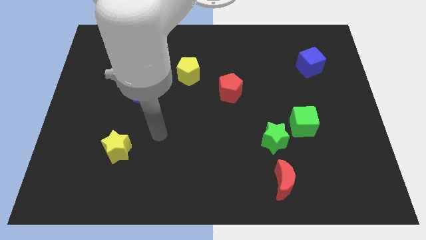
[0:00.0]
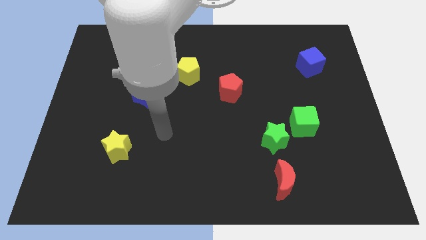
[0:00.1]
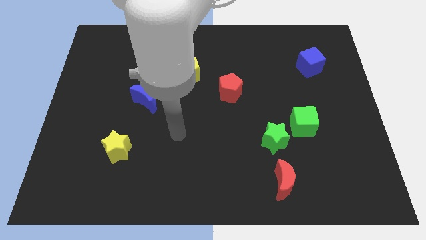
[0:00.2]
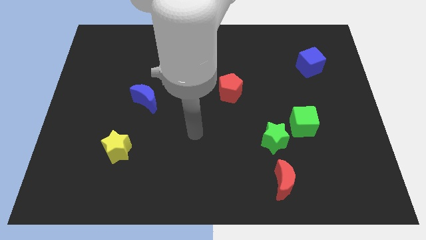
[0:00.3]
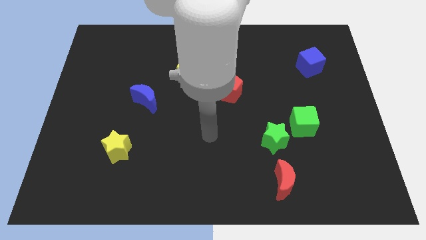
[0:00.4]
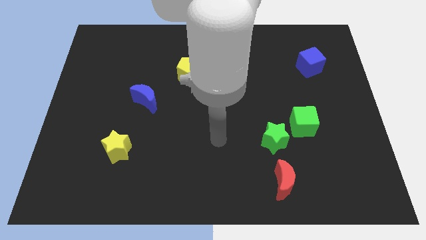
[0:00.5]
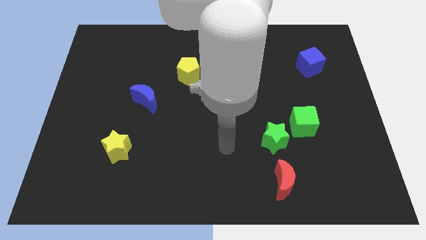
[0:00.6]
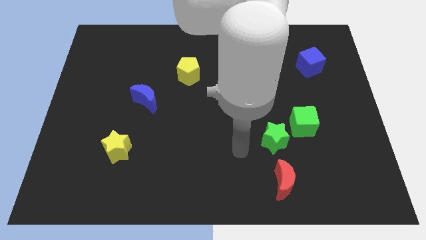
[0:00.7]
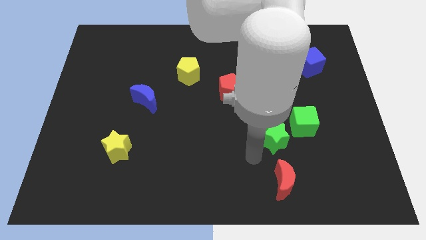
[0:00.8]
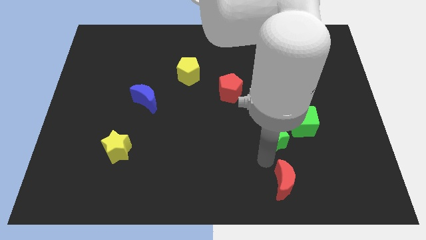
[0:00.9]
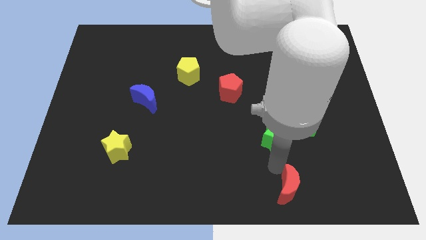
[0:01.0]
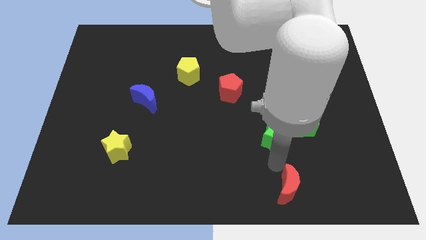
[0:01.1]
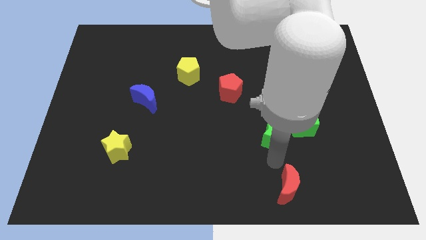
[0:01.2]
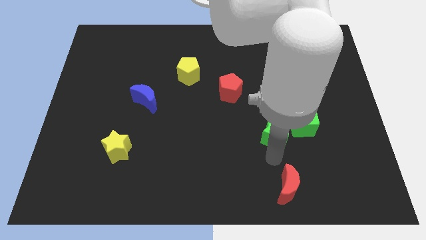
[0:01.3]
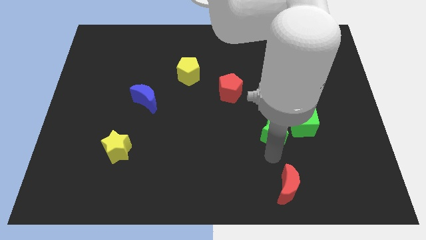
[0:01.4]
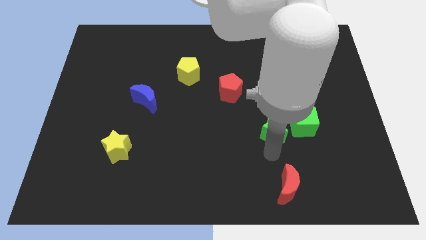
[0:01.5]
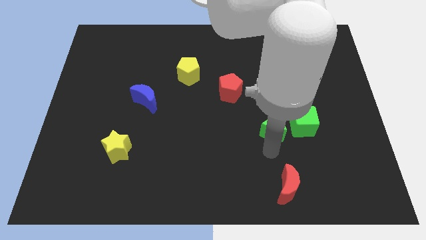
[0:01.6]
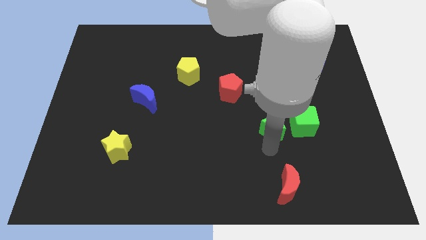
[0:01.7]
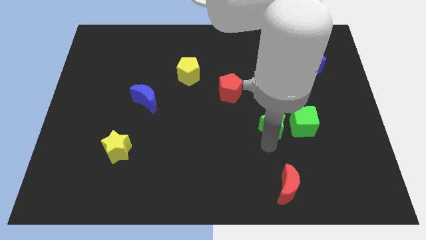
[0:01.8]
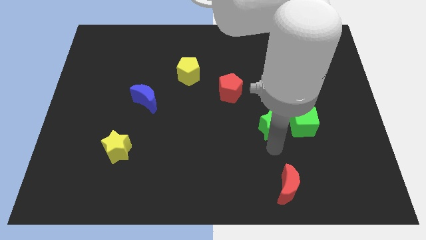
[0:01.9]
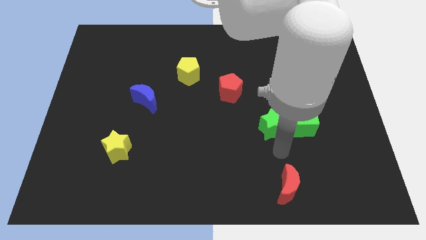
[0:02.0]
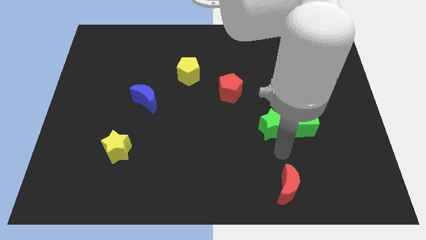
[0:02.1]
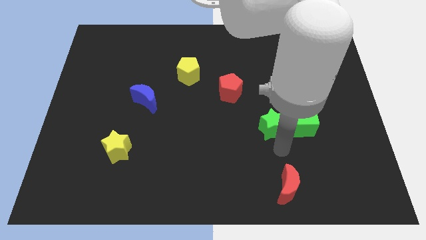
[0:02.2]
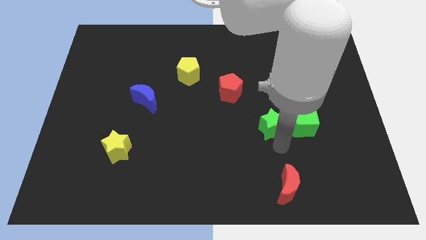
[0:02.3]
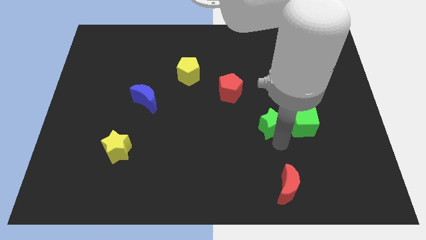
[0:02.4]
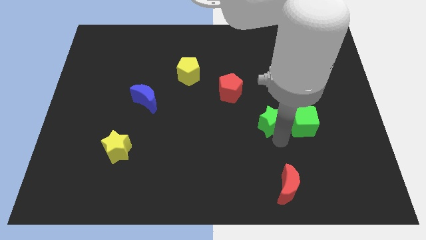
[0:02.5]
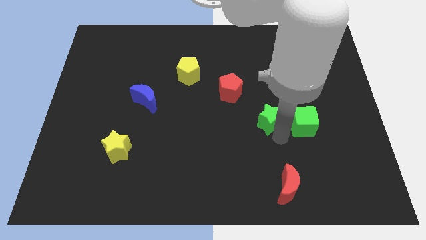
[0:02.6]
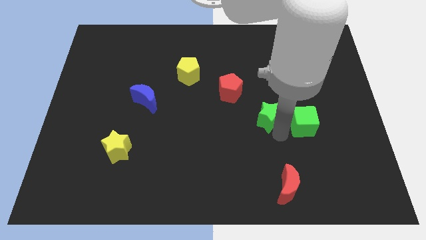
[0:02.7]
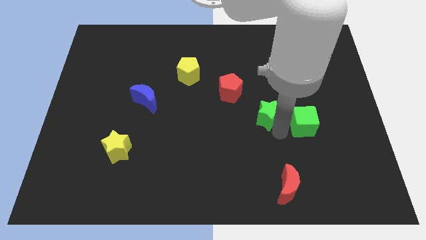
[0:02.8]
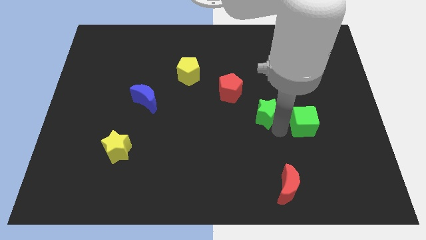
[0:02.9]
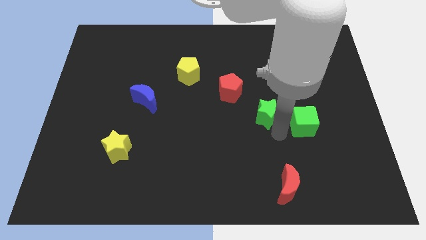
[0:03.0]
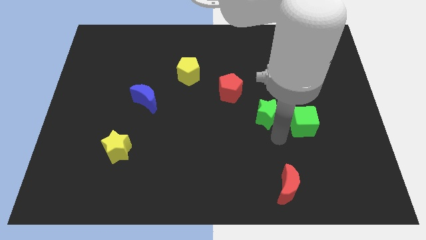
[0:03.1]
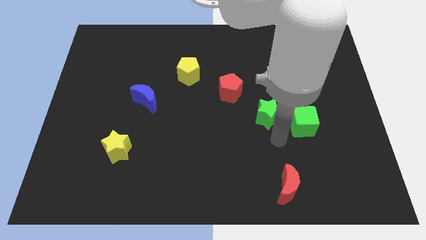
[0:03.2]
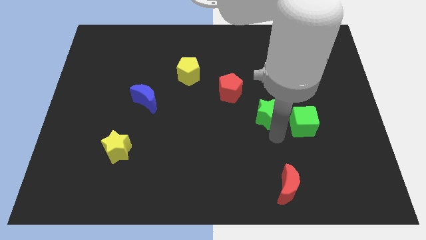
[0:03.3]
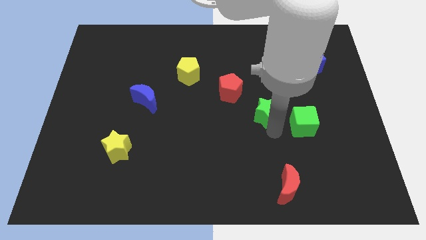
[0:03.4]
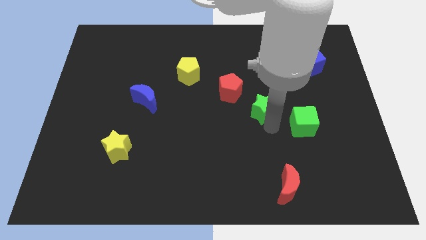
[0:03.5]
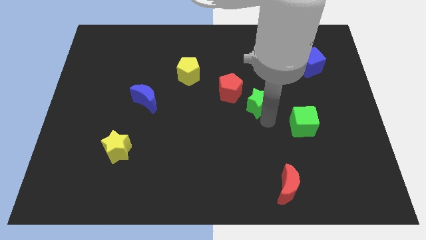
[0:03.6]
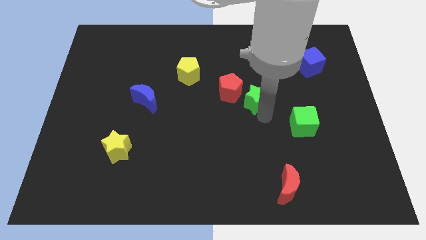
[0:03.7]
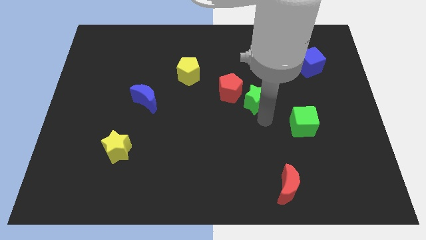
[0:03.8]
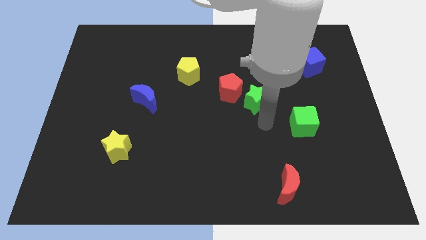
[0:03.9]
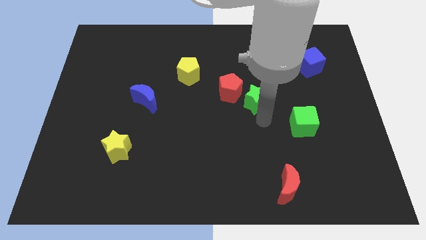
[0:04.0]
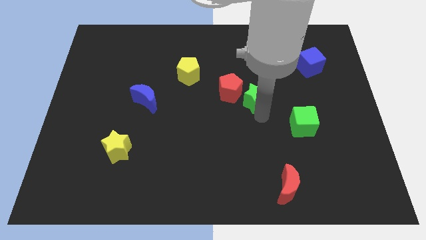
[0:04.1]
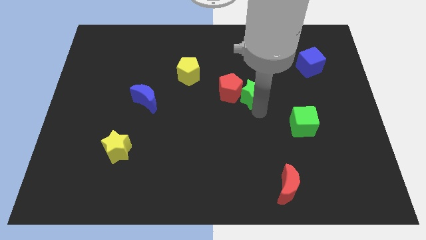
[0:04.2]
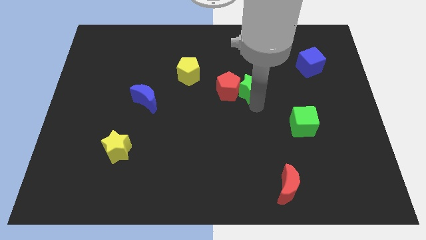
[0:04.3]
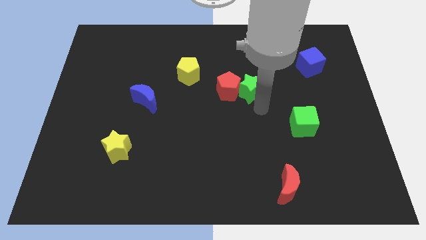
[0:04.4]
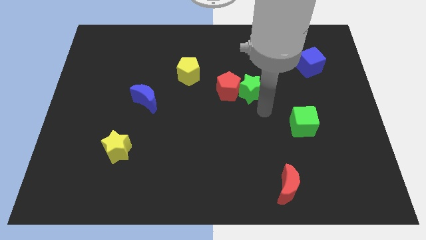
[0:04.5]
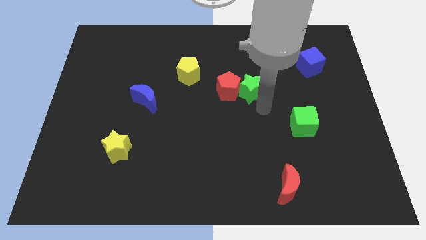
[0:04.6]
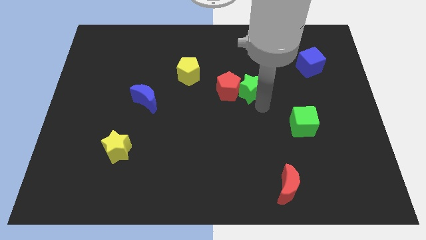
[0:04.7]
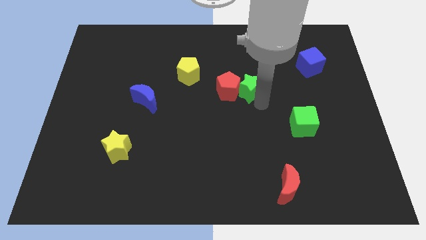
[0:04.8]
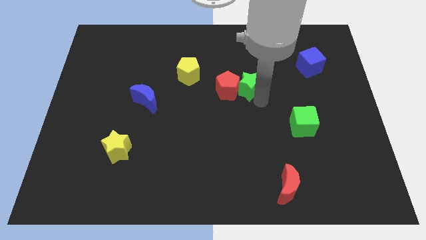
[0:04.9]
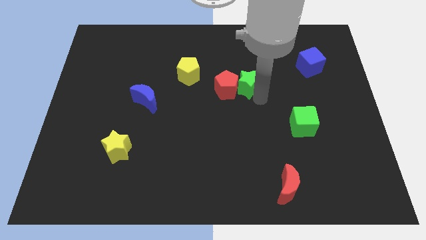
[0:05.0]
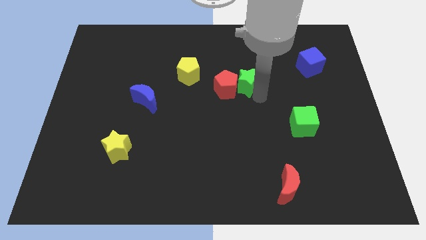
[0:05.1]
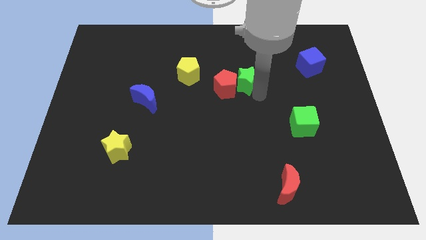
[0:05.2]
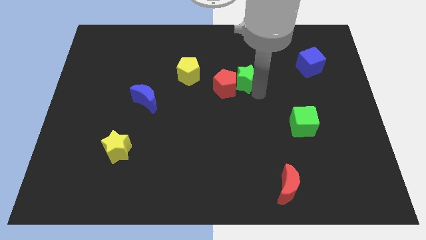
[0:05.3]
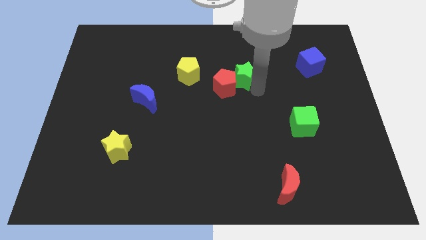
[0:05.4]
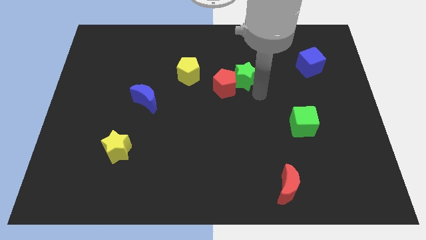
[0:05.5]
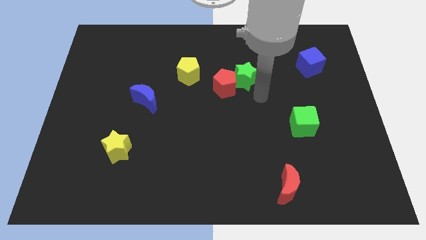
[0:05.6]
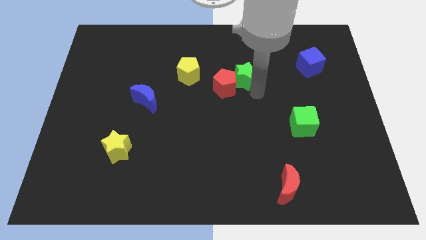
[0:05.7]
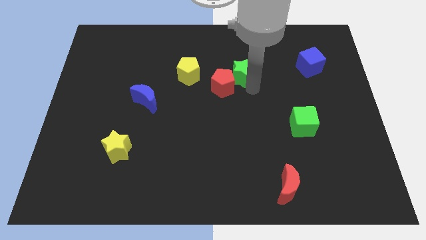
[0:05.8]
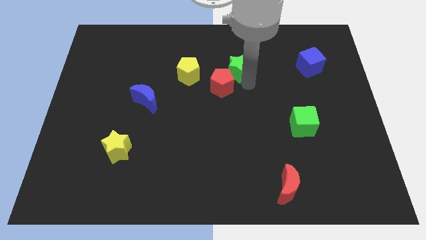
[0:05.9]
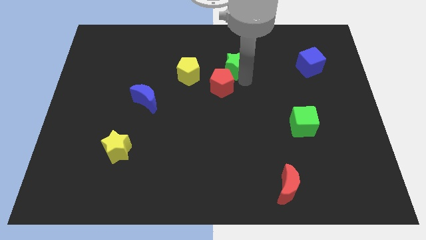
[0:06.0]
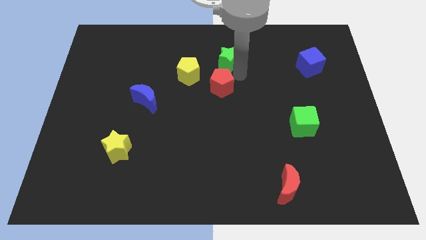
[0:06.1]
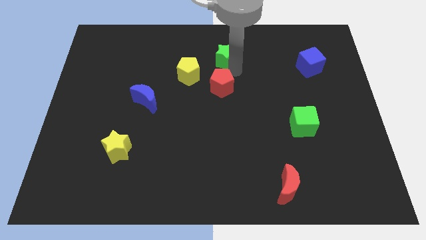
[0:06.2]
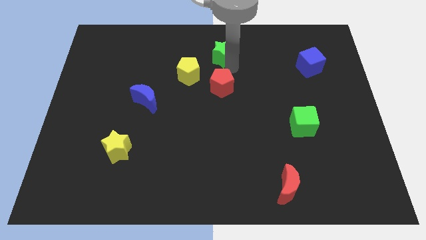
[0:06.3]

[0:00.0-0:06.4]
move the green star to the top

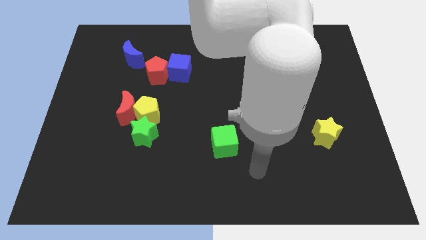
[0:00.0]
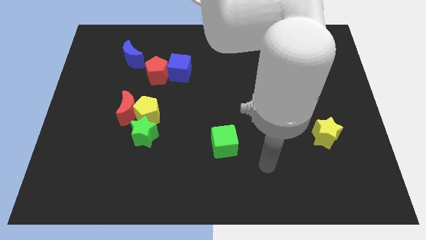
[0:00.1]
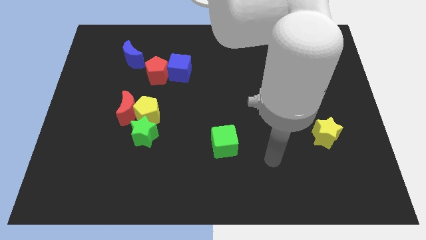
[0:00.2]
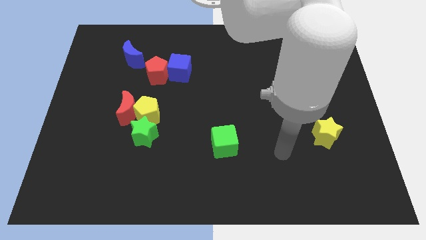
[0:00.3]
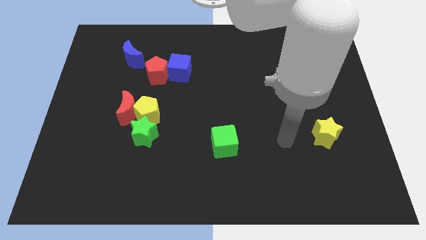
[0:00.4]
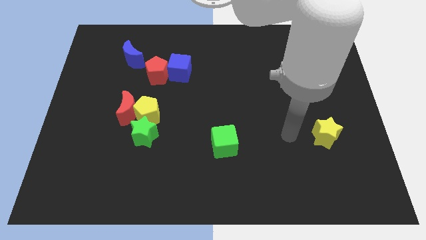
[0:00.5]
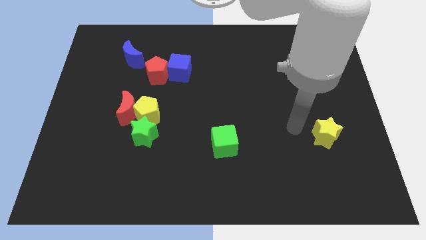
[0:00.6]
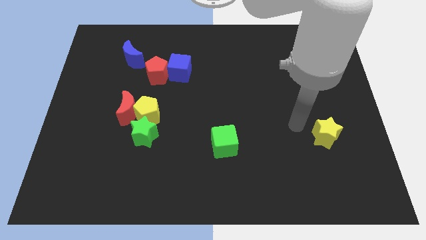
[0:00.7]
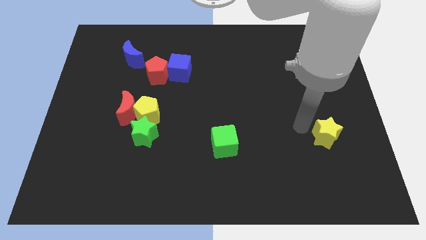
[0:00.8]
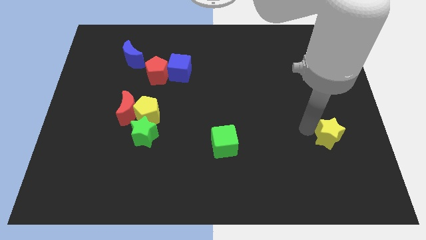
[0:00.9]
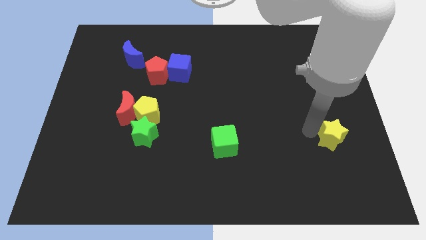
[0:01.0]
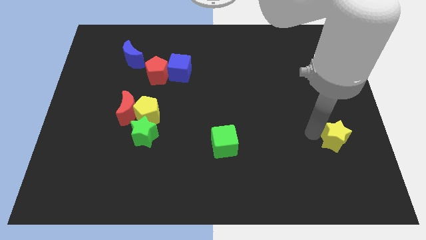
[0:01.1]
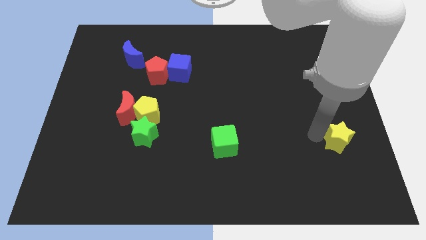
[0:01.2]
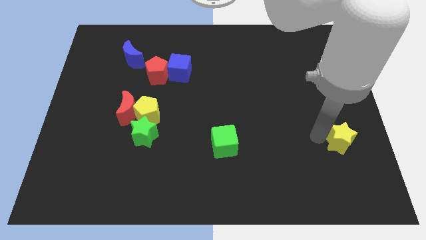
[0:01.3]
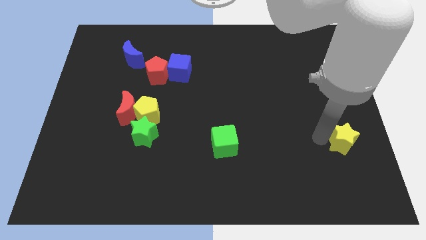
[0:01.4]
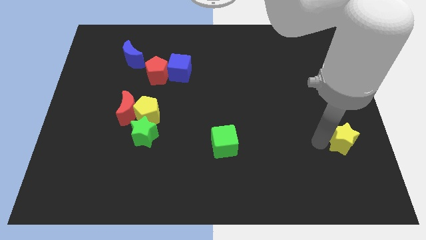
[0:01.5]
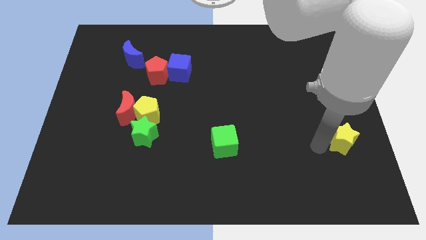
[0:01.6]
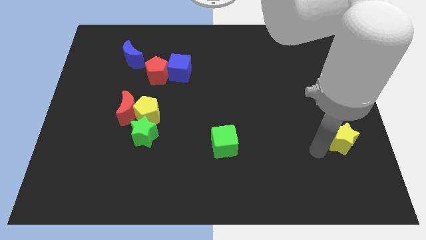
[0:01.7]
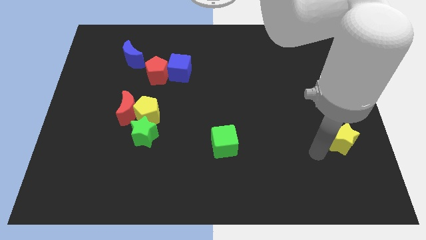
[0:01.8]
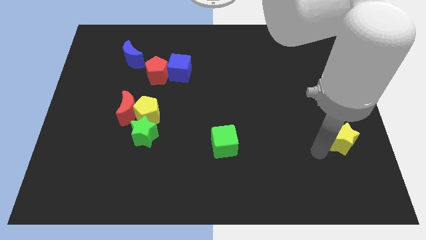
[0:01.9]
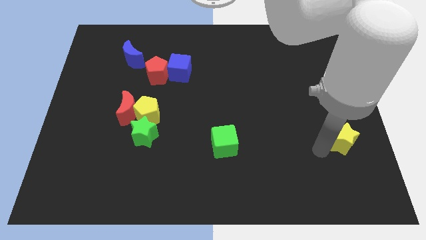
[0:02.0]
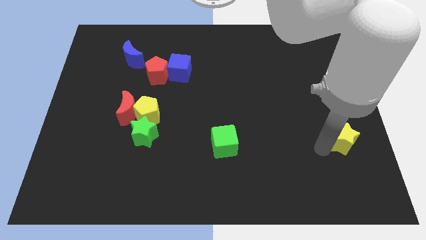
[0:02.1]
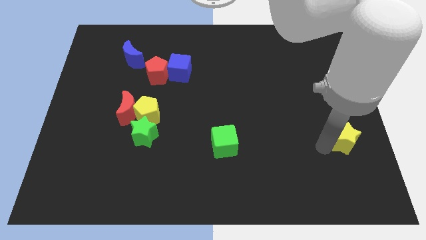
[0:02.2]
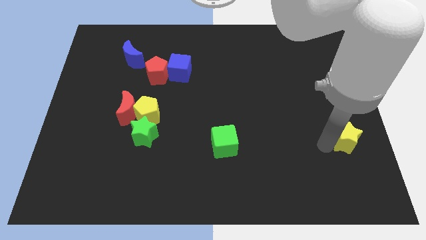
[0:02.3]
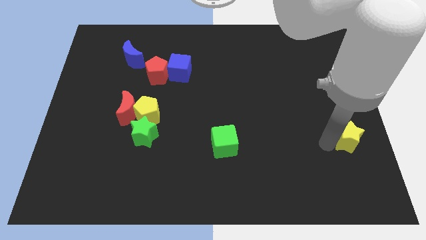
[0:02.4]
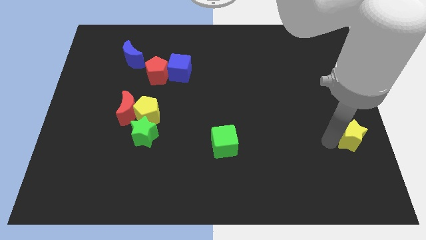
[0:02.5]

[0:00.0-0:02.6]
push the yellow star to the center right
